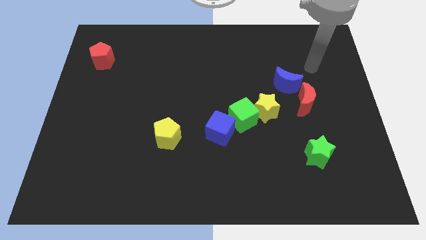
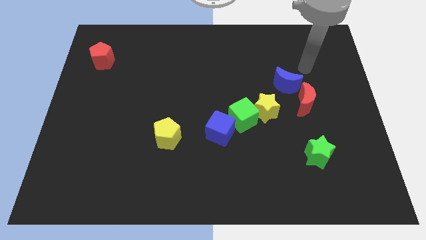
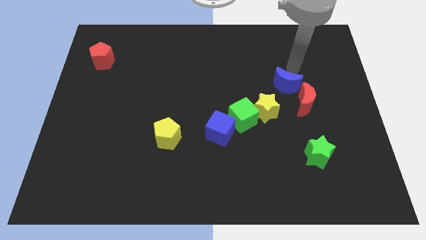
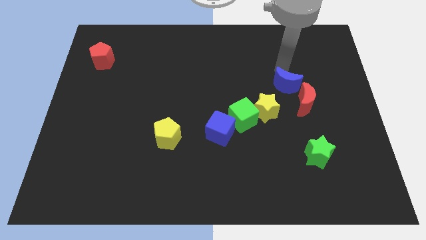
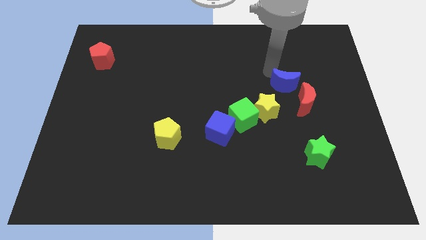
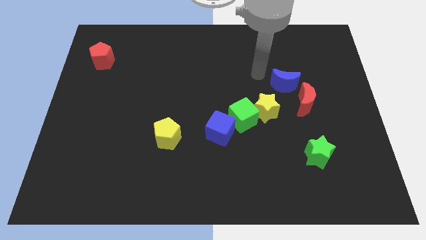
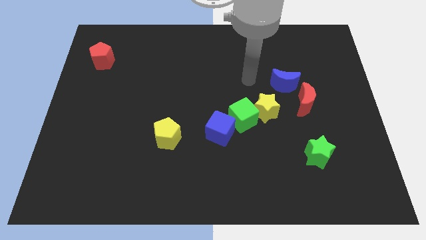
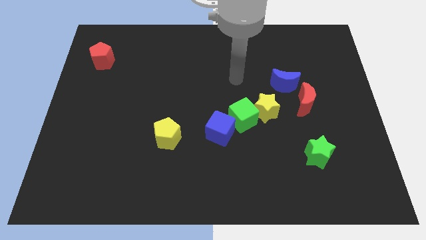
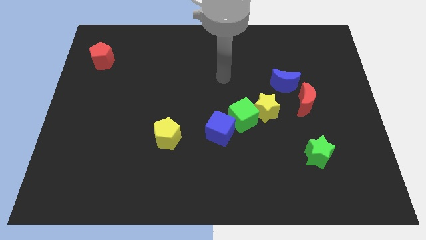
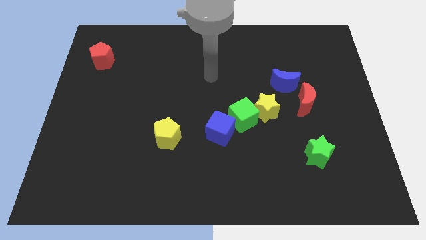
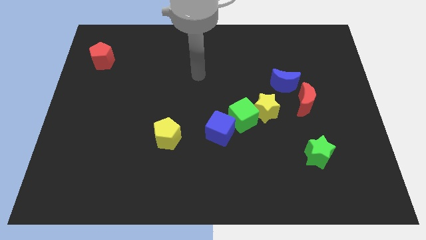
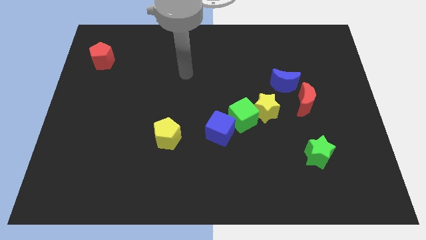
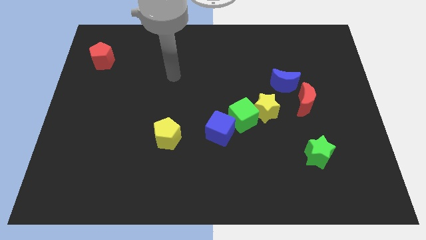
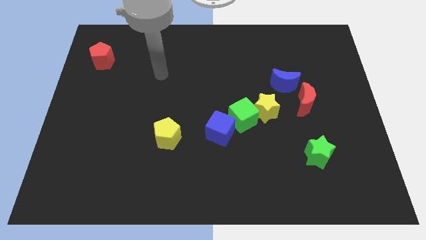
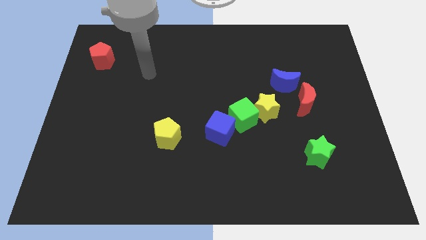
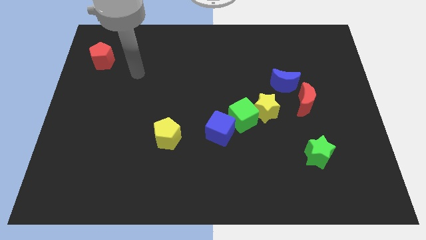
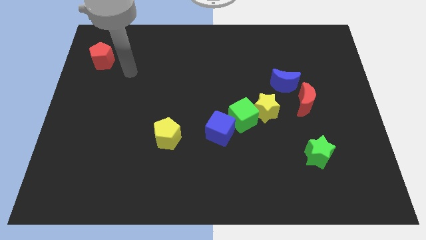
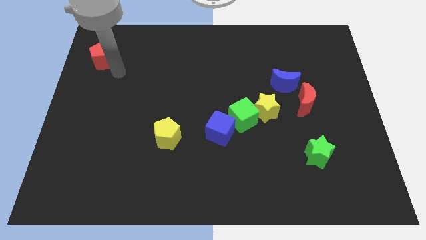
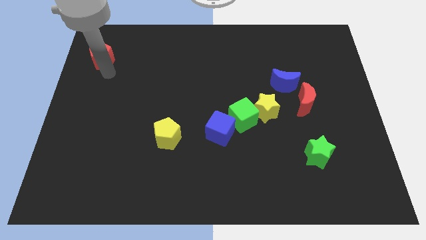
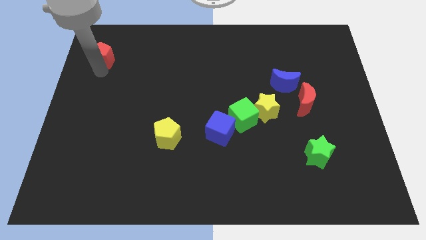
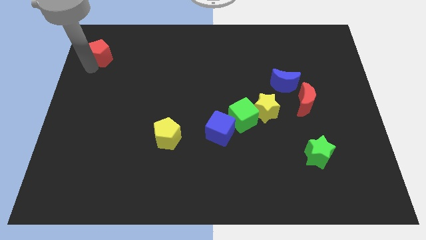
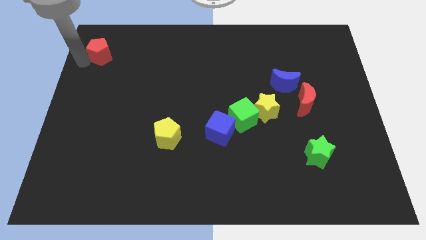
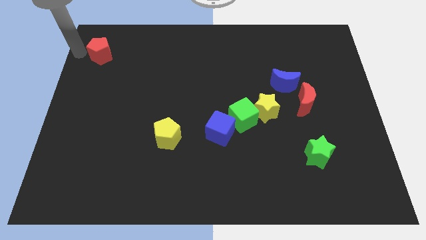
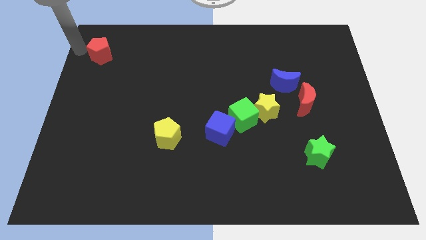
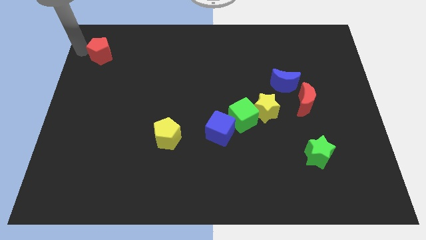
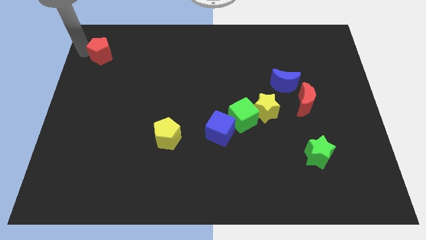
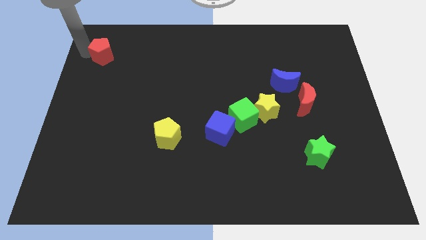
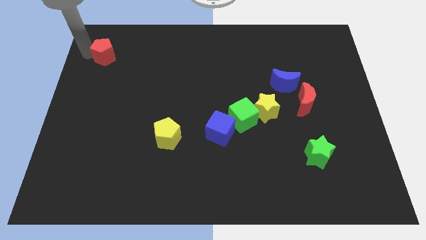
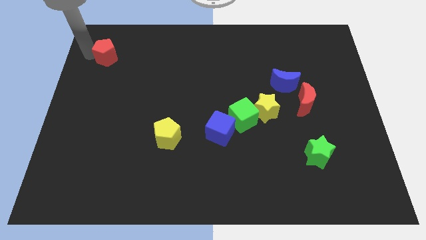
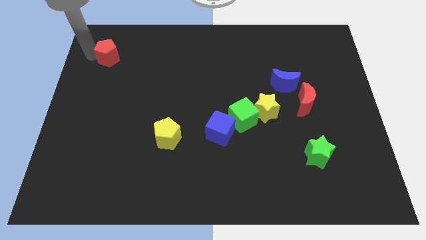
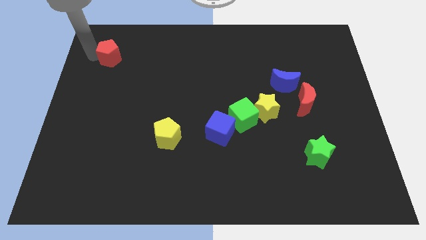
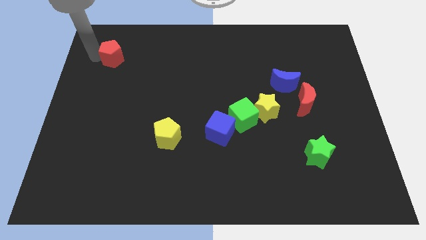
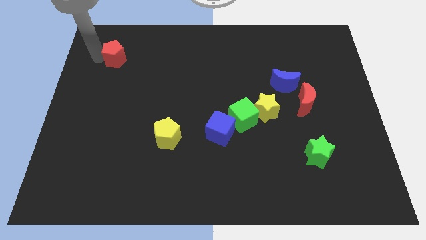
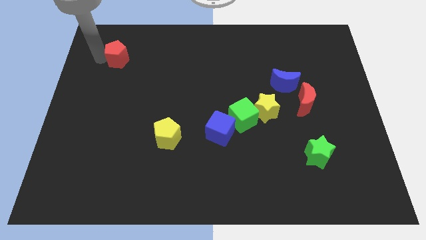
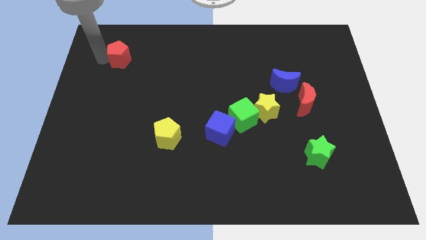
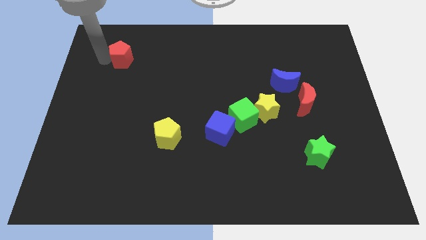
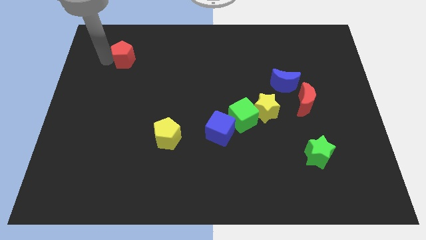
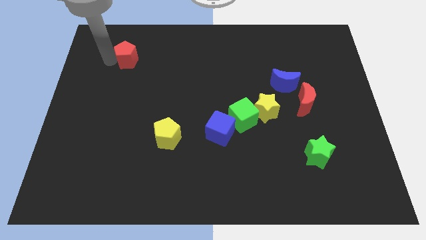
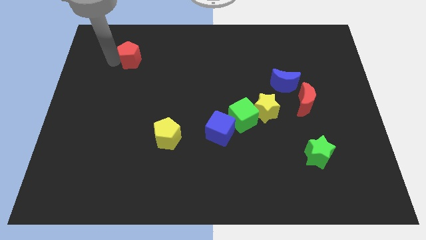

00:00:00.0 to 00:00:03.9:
slide the red pentagon to the right a little

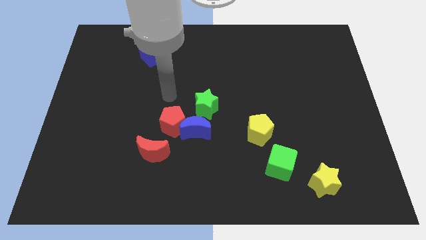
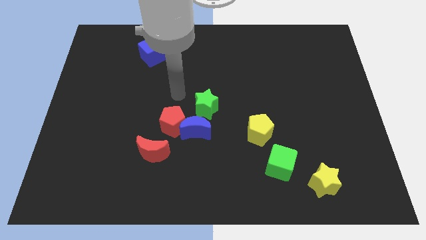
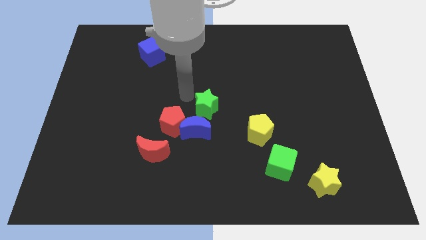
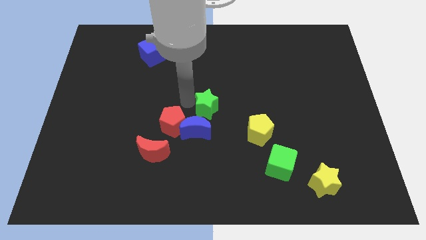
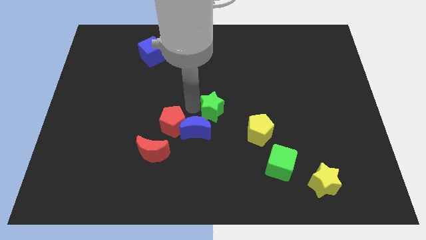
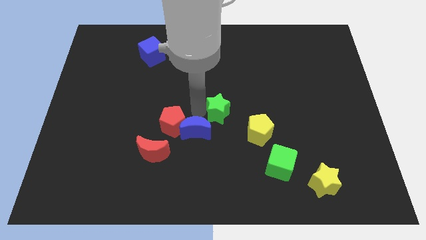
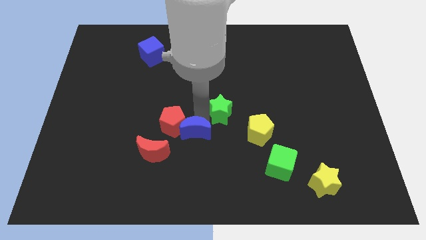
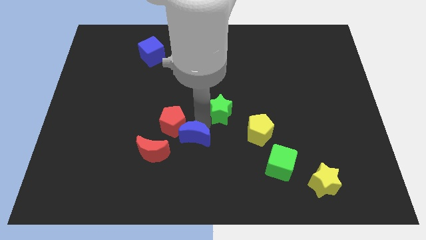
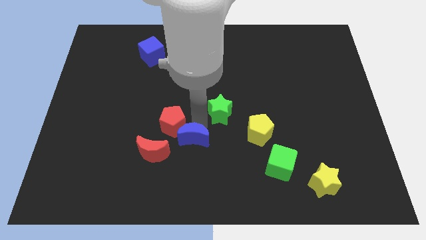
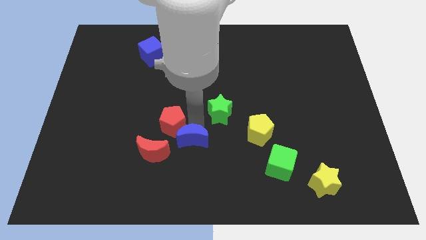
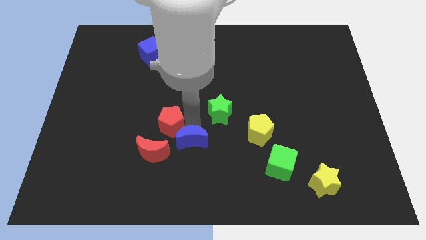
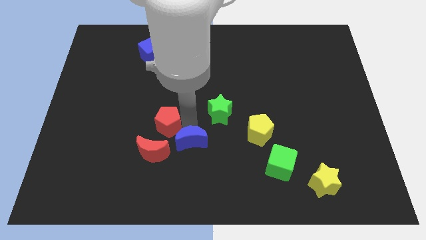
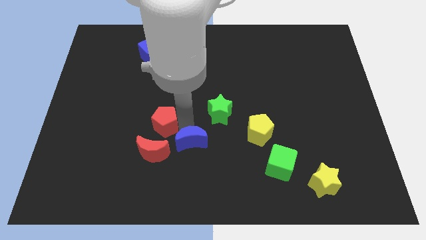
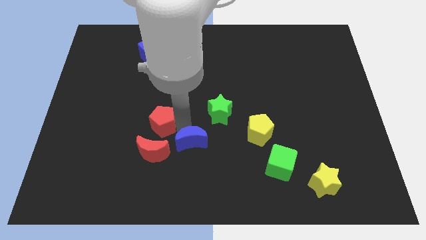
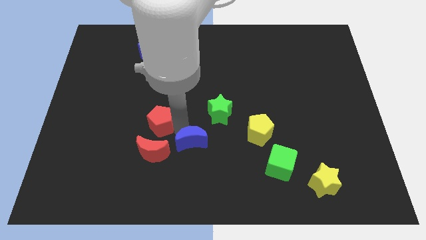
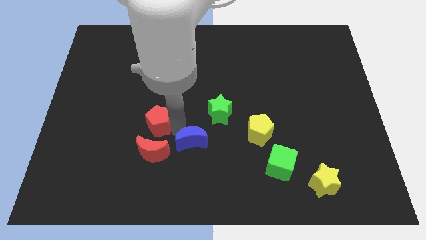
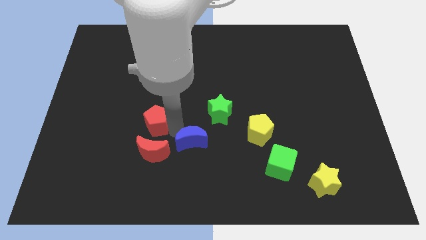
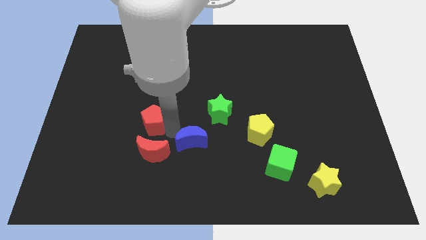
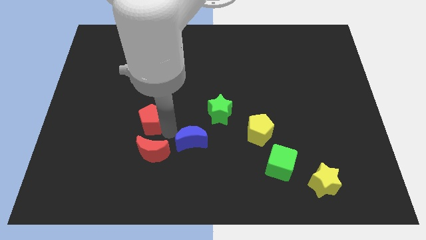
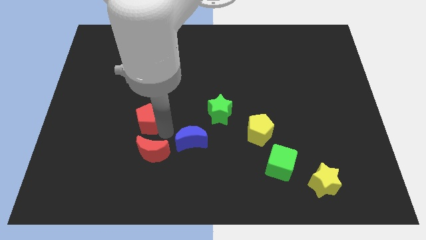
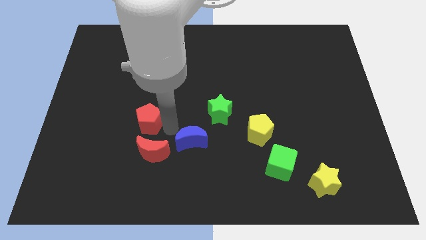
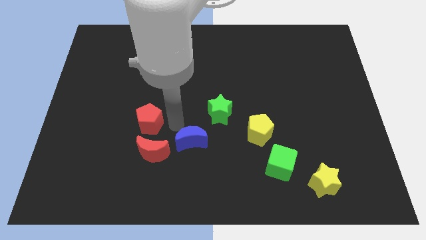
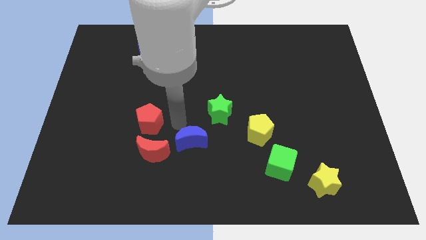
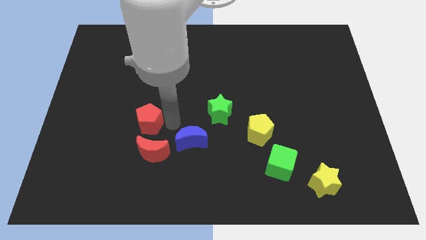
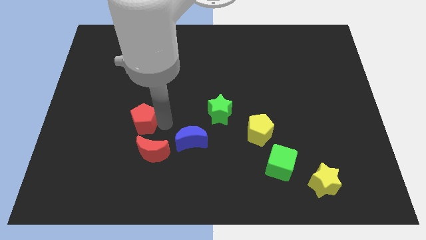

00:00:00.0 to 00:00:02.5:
push the red pentagon a little to the left

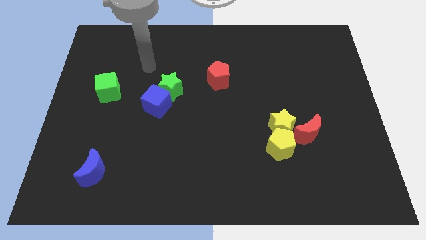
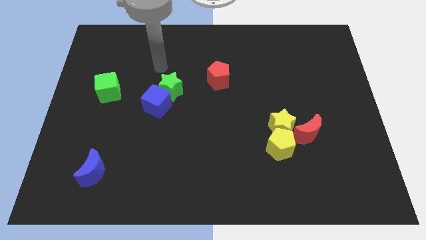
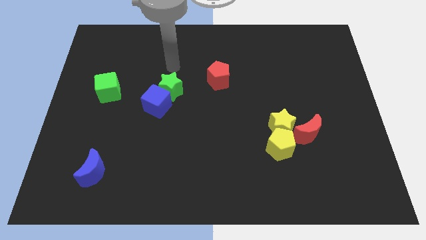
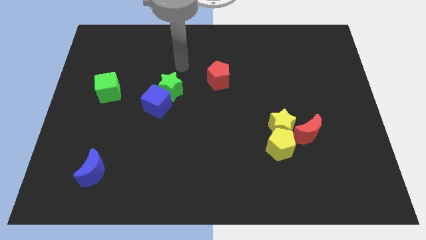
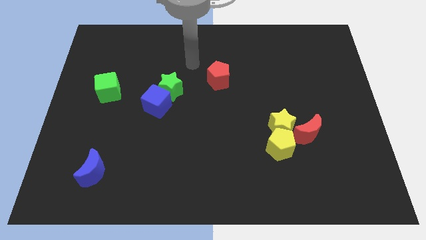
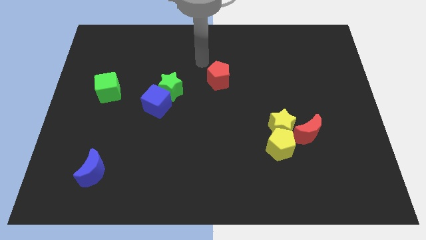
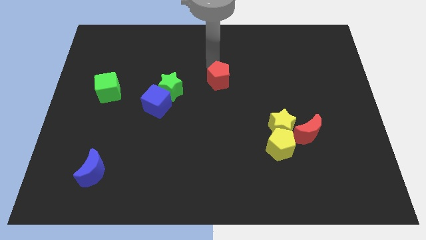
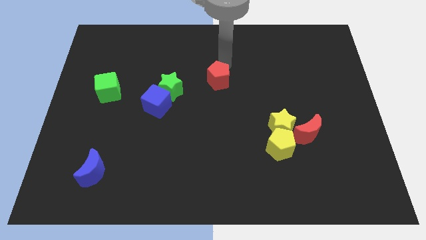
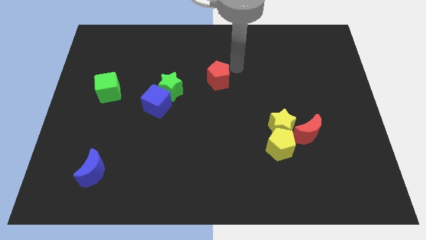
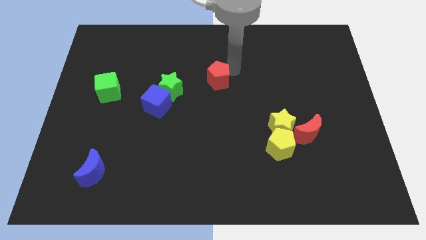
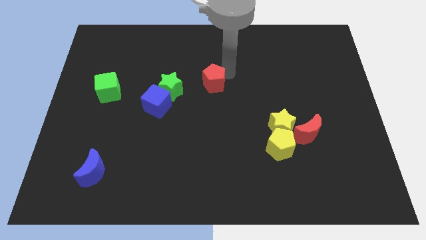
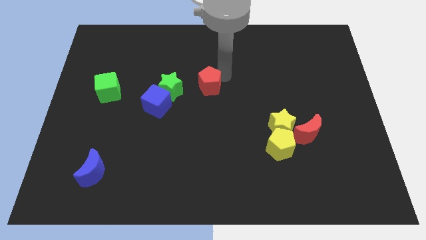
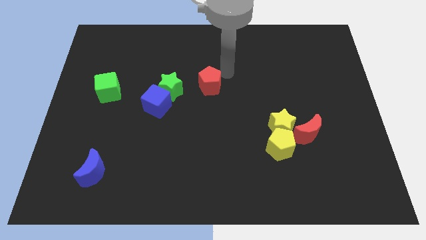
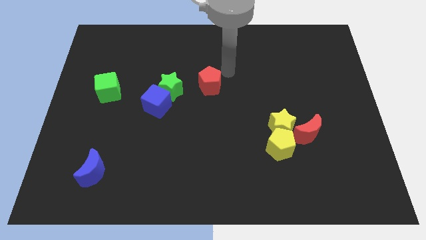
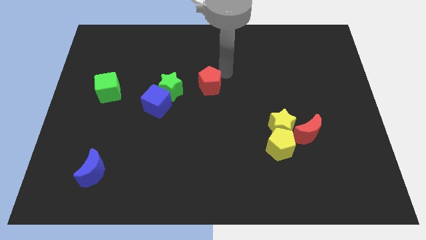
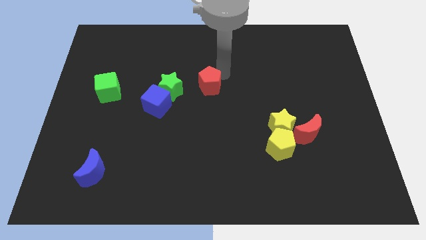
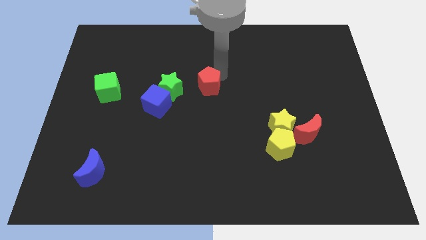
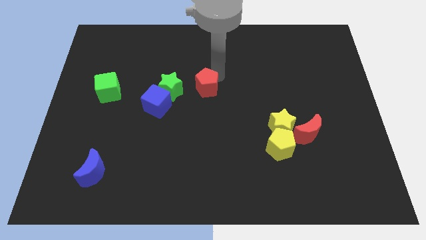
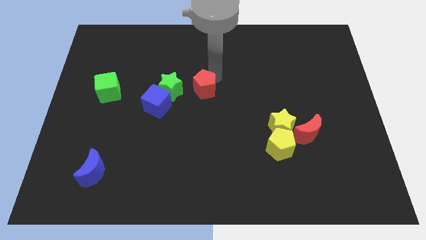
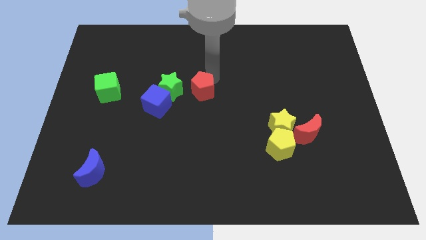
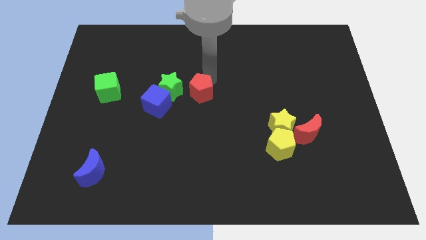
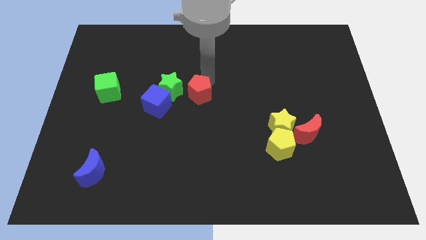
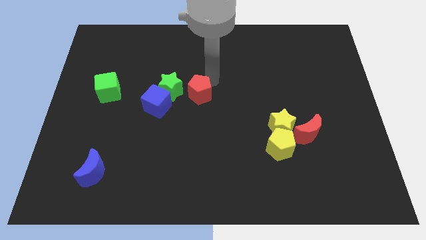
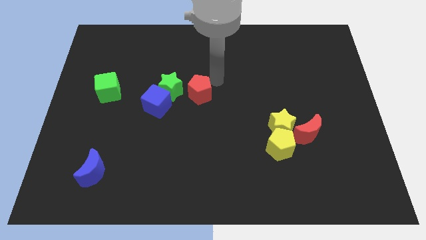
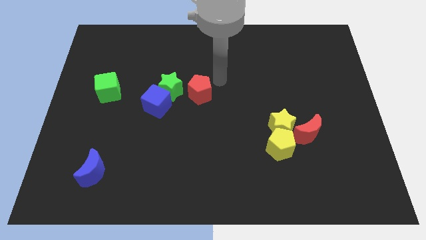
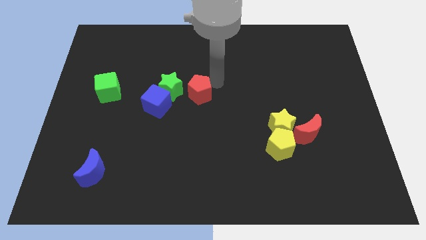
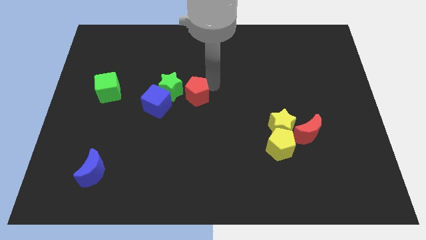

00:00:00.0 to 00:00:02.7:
slightly push the red pentagon downwards and left diagonally
